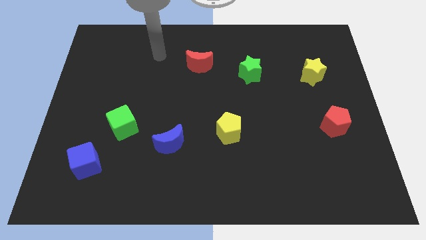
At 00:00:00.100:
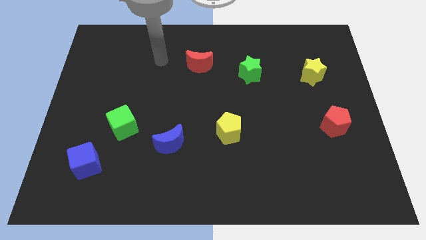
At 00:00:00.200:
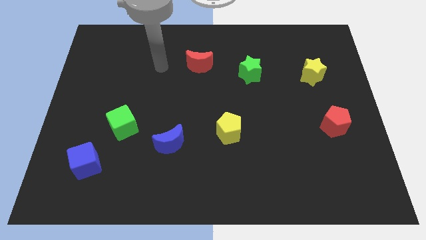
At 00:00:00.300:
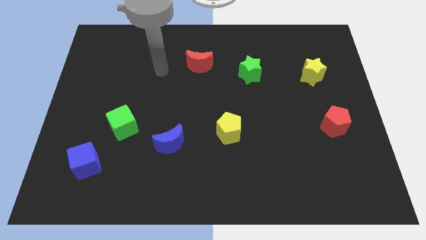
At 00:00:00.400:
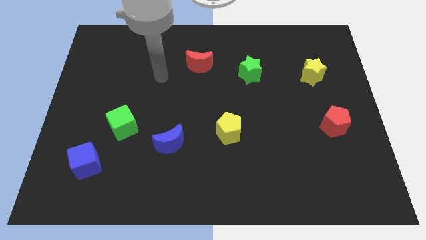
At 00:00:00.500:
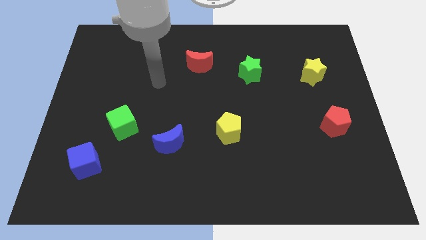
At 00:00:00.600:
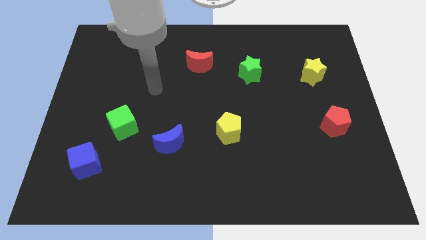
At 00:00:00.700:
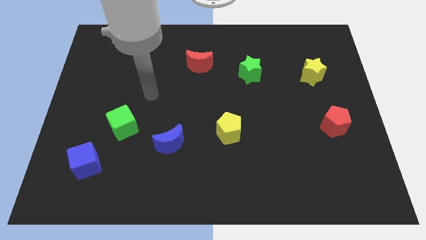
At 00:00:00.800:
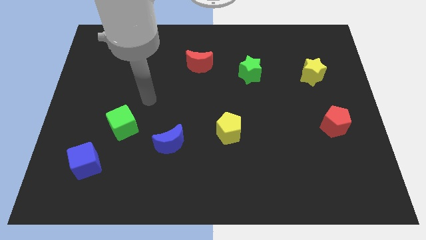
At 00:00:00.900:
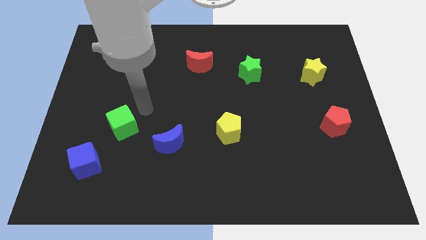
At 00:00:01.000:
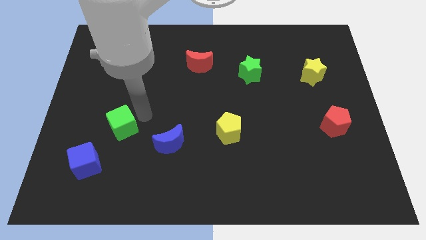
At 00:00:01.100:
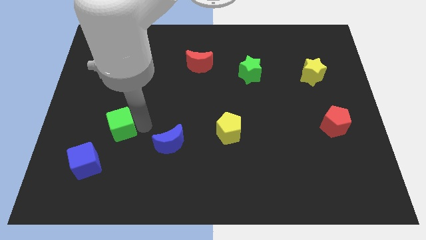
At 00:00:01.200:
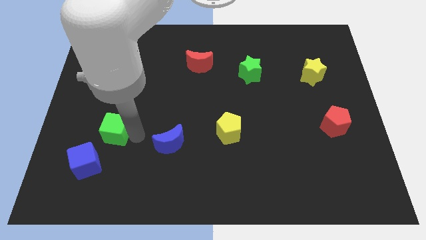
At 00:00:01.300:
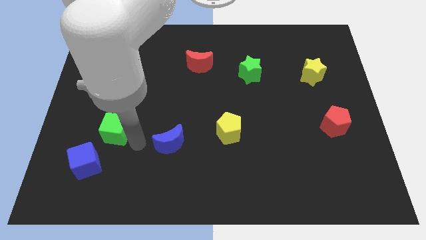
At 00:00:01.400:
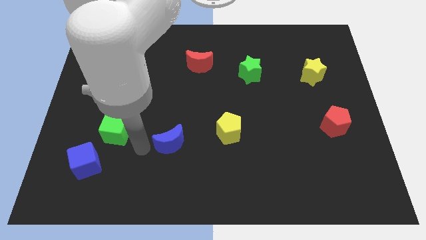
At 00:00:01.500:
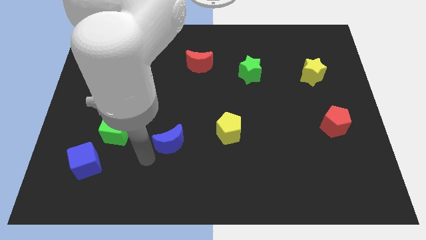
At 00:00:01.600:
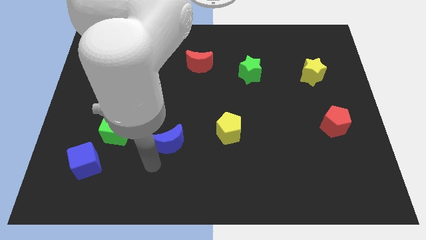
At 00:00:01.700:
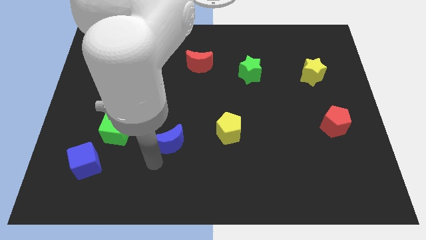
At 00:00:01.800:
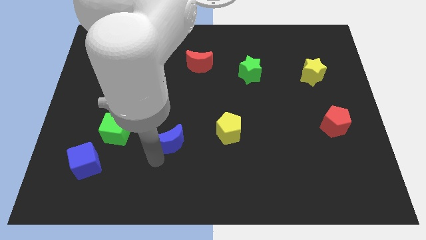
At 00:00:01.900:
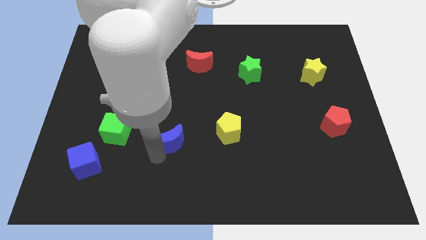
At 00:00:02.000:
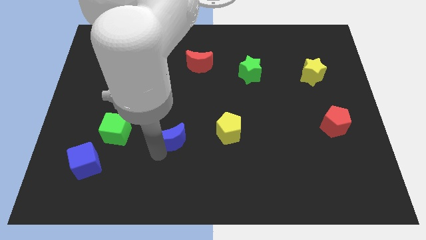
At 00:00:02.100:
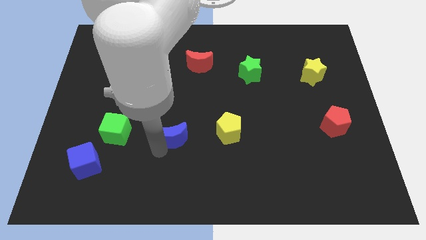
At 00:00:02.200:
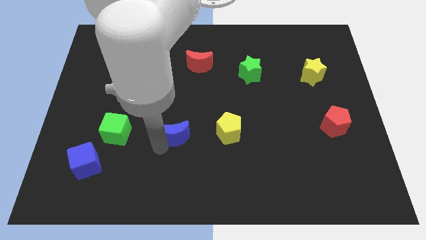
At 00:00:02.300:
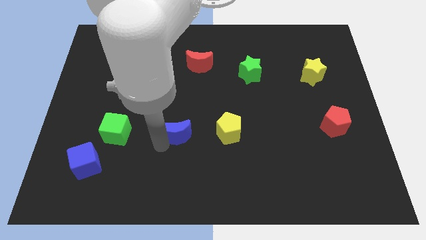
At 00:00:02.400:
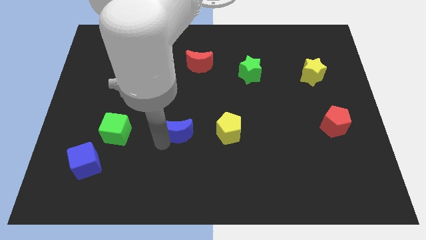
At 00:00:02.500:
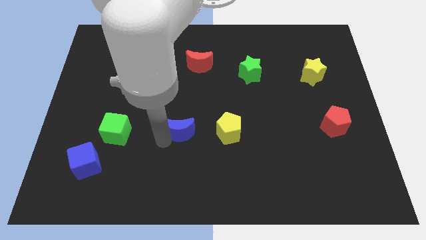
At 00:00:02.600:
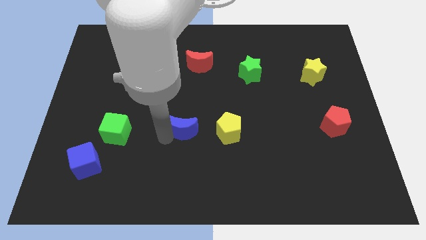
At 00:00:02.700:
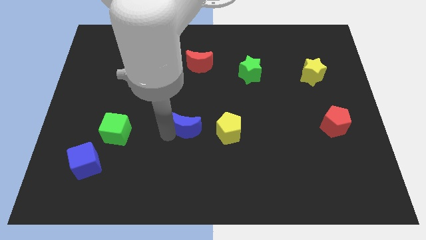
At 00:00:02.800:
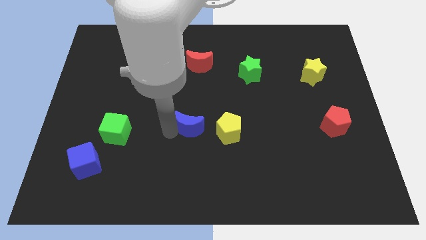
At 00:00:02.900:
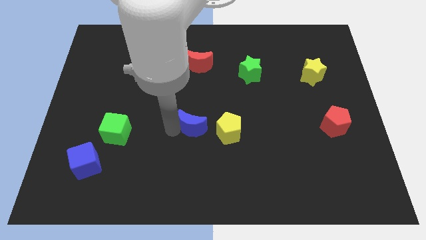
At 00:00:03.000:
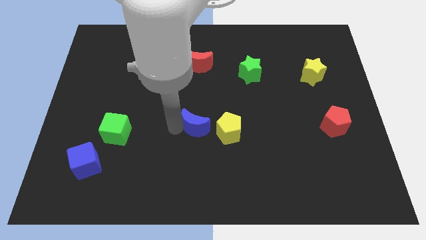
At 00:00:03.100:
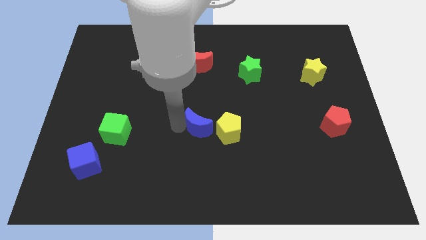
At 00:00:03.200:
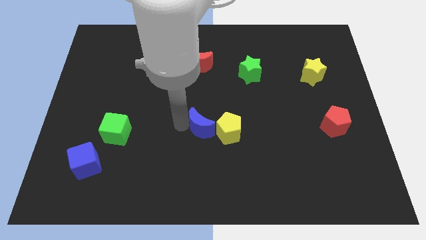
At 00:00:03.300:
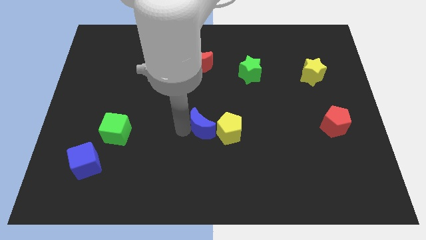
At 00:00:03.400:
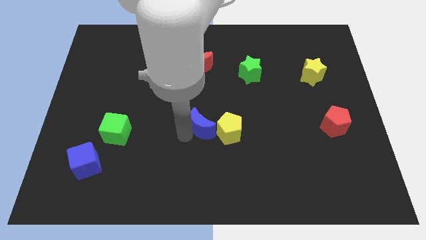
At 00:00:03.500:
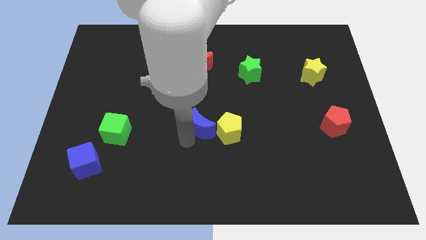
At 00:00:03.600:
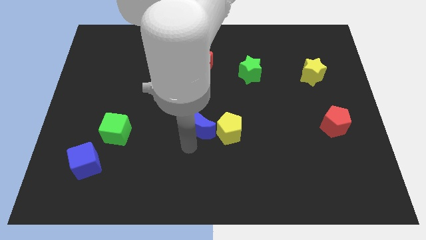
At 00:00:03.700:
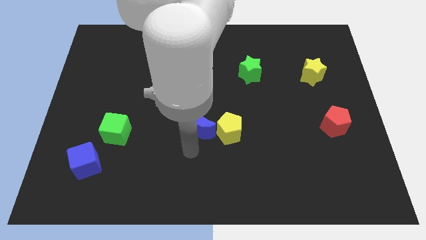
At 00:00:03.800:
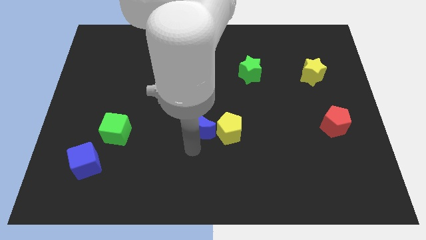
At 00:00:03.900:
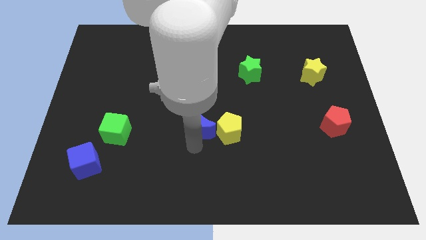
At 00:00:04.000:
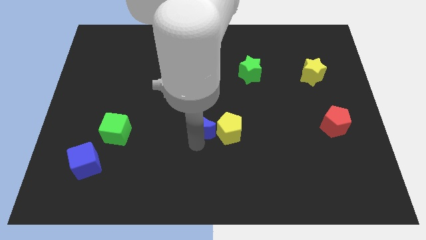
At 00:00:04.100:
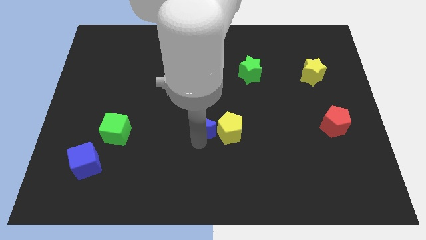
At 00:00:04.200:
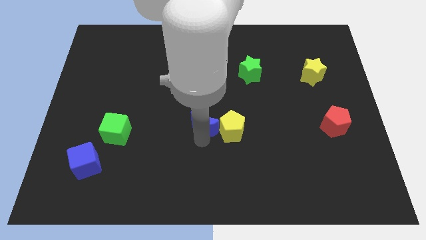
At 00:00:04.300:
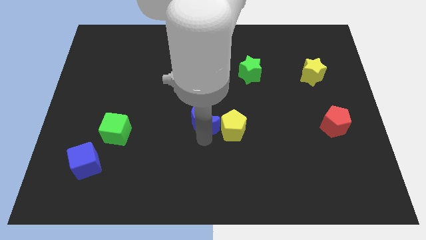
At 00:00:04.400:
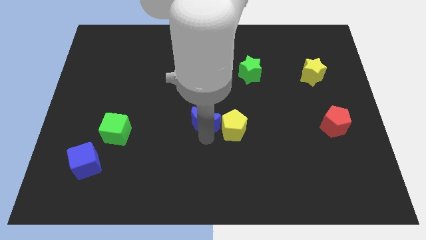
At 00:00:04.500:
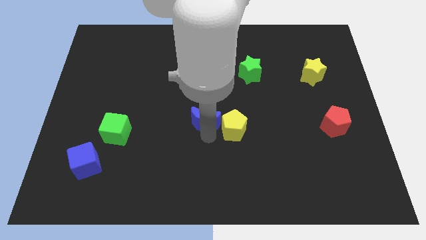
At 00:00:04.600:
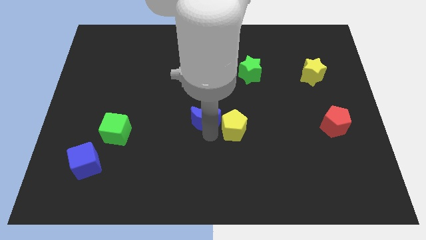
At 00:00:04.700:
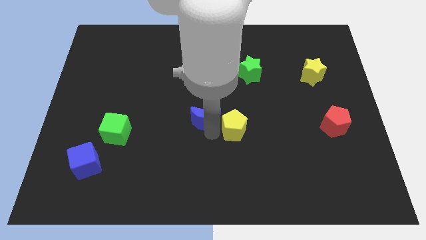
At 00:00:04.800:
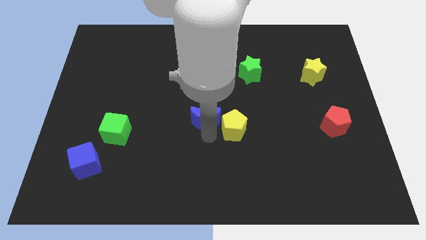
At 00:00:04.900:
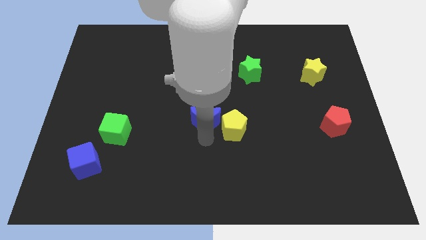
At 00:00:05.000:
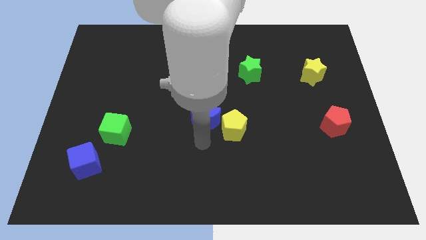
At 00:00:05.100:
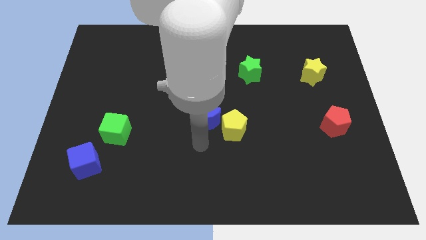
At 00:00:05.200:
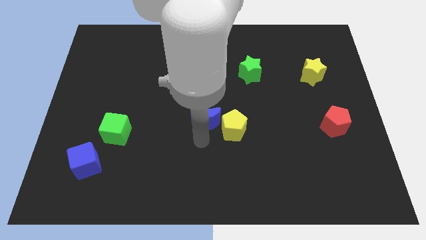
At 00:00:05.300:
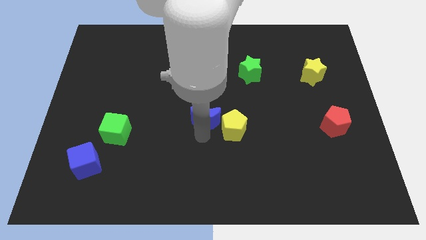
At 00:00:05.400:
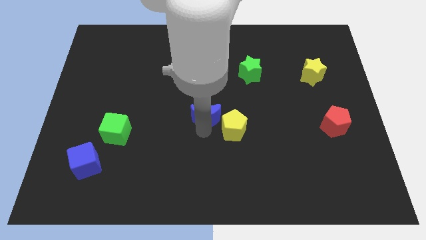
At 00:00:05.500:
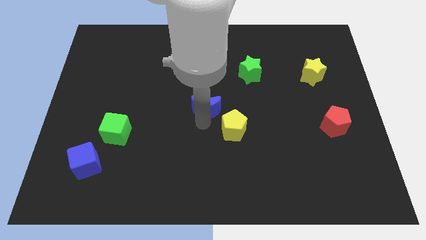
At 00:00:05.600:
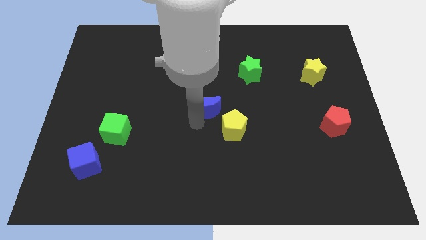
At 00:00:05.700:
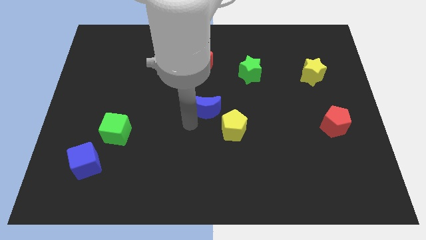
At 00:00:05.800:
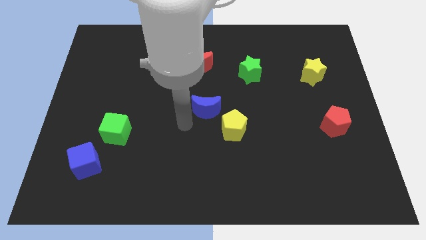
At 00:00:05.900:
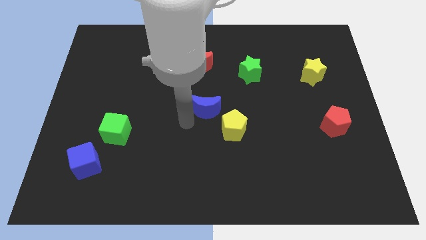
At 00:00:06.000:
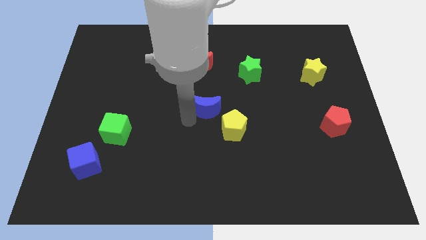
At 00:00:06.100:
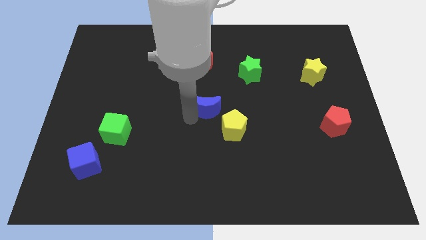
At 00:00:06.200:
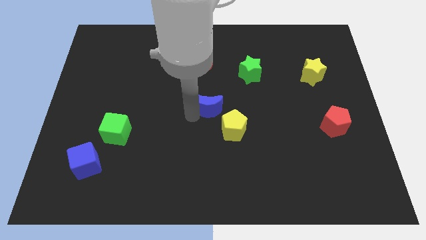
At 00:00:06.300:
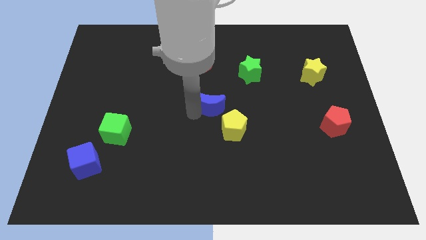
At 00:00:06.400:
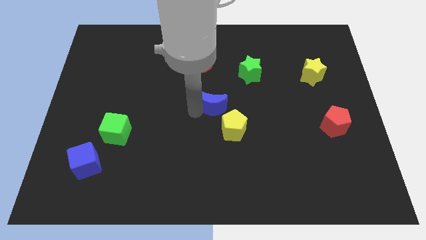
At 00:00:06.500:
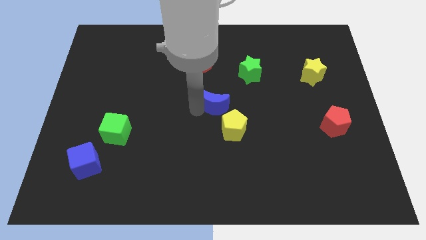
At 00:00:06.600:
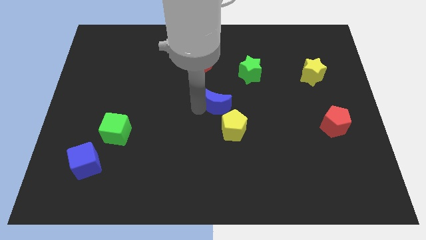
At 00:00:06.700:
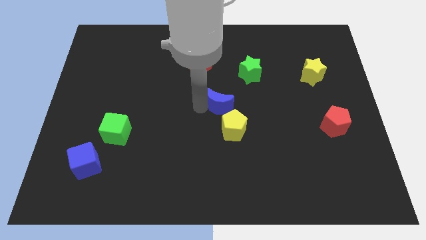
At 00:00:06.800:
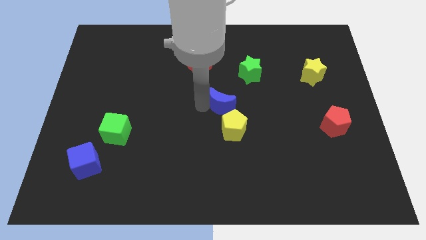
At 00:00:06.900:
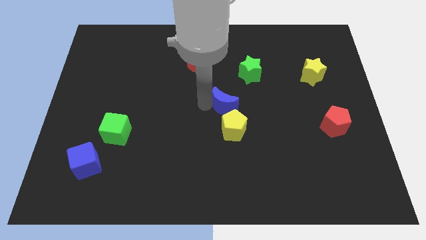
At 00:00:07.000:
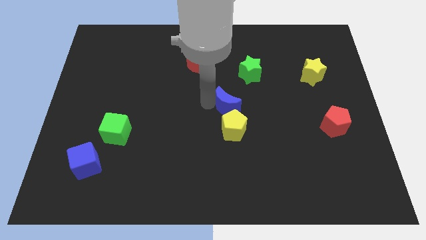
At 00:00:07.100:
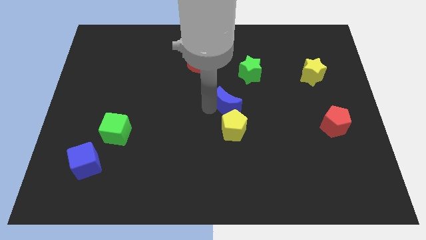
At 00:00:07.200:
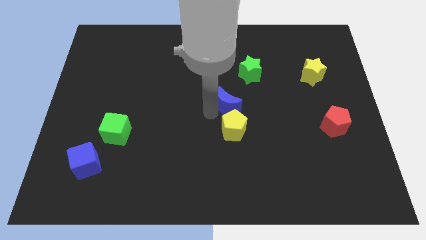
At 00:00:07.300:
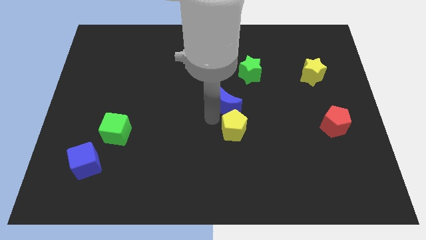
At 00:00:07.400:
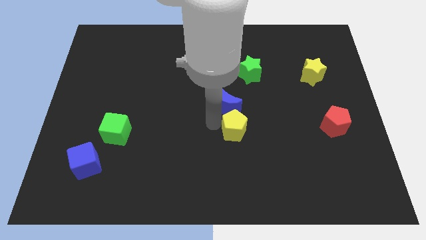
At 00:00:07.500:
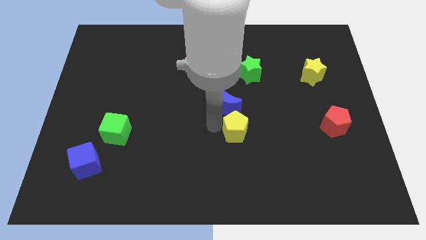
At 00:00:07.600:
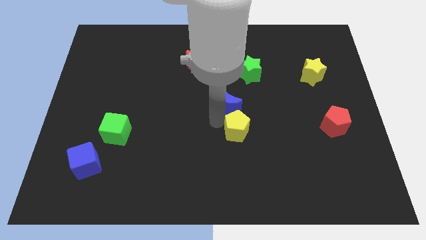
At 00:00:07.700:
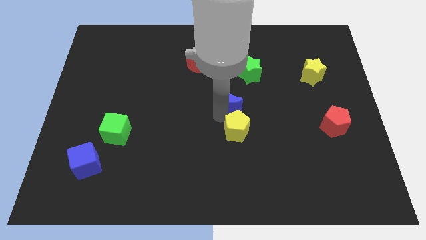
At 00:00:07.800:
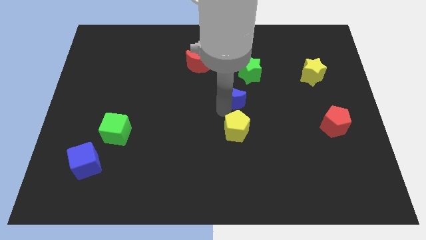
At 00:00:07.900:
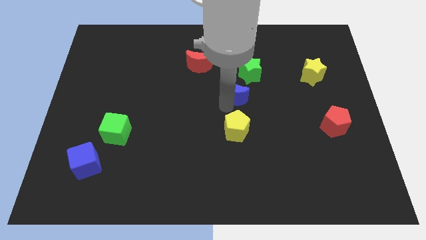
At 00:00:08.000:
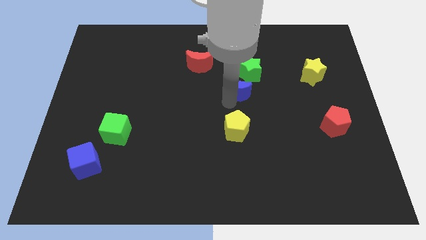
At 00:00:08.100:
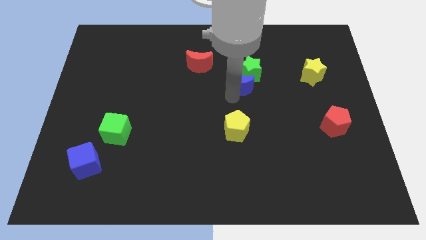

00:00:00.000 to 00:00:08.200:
move the blue moon towards the green star
